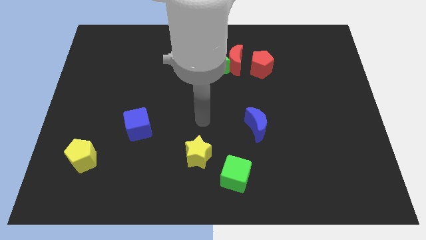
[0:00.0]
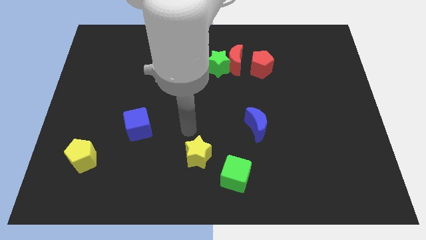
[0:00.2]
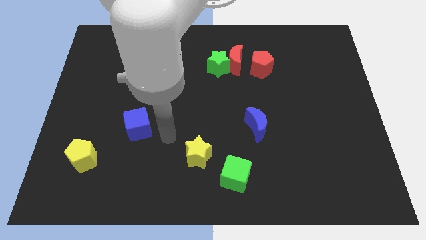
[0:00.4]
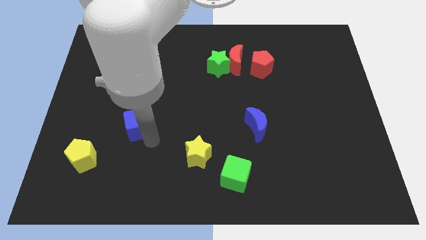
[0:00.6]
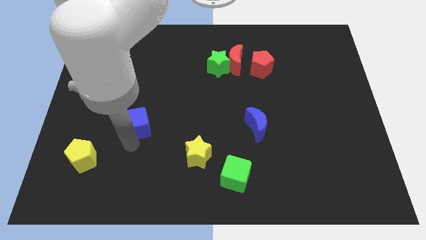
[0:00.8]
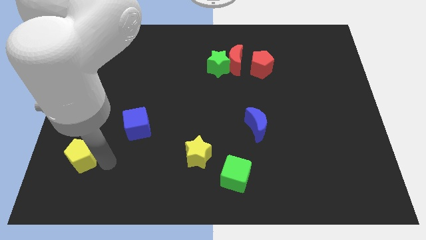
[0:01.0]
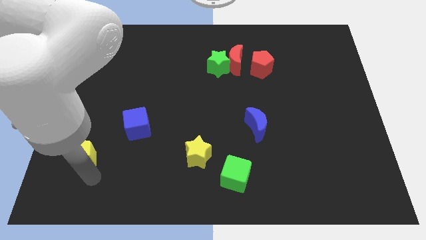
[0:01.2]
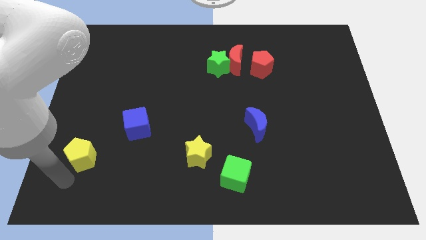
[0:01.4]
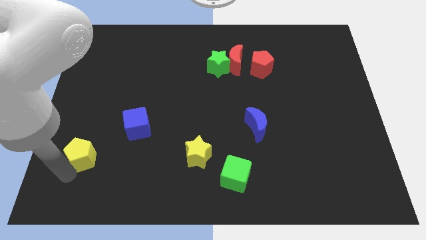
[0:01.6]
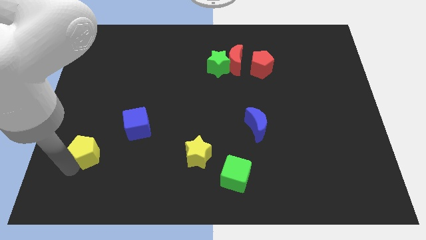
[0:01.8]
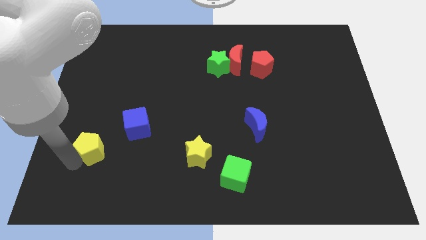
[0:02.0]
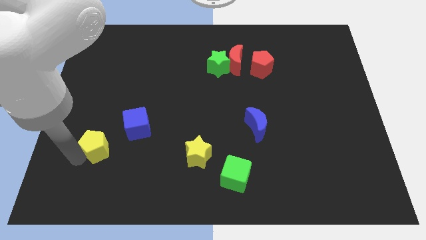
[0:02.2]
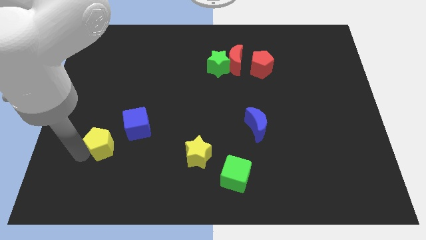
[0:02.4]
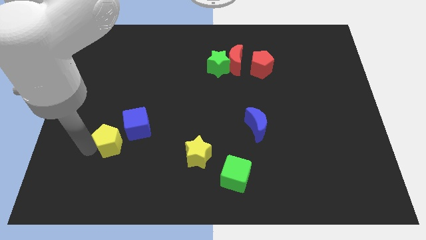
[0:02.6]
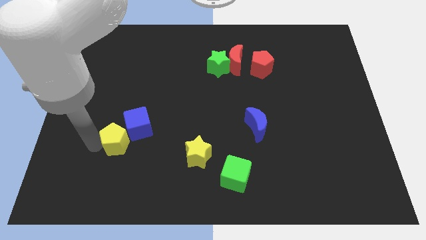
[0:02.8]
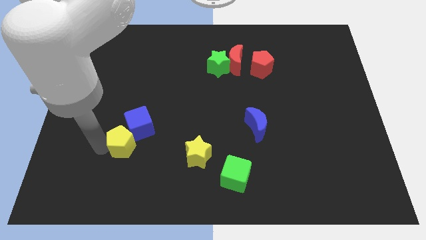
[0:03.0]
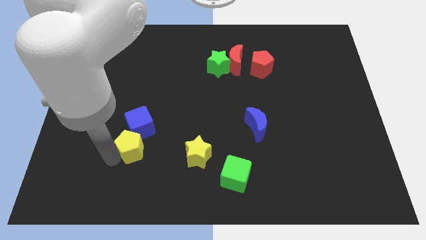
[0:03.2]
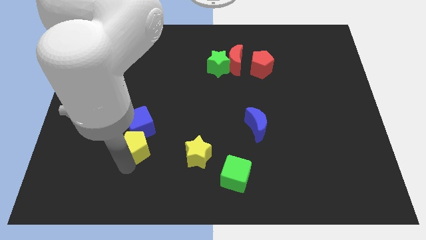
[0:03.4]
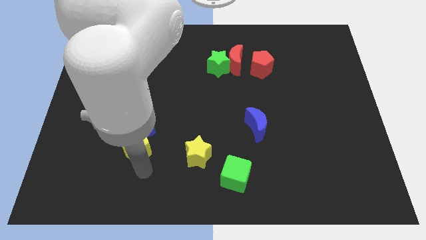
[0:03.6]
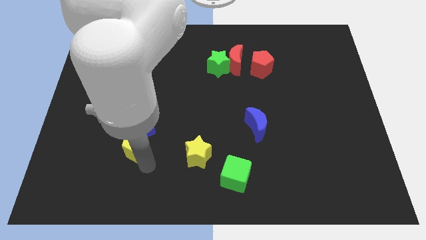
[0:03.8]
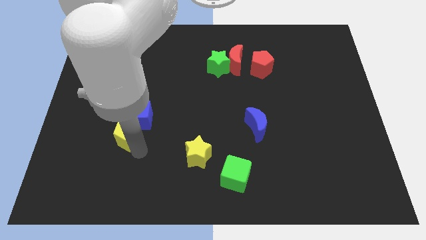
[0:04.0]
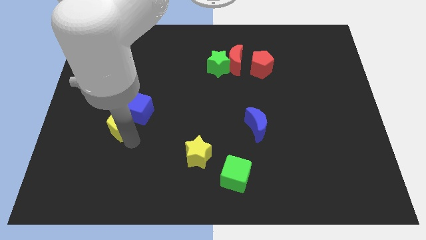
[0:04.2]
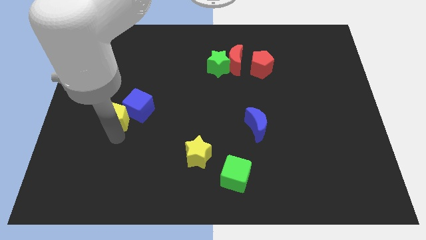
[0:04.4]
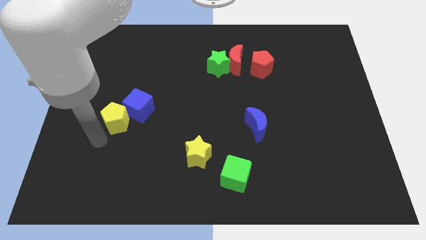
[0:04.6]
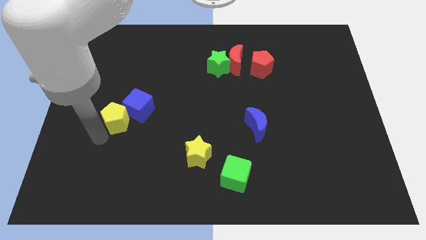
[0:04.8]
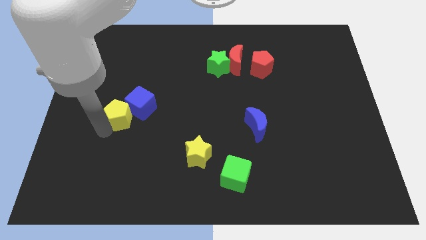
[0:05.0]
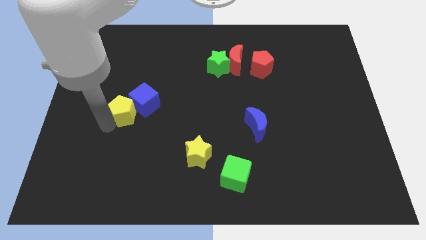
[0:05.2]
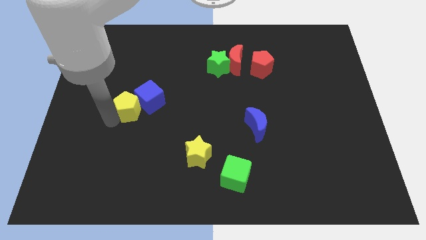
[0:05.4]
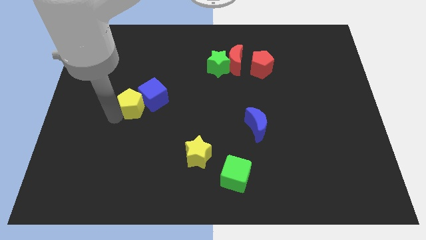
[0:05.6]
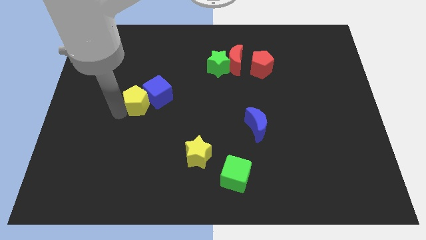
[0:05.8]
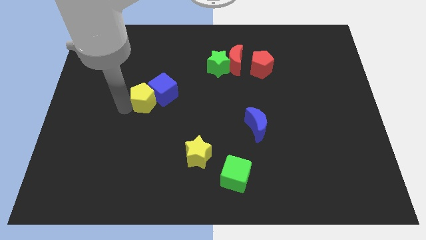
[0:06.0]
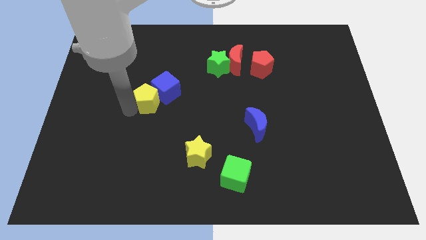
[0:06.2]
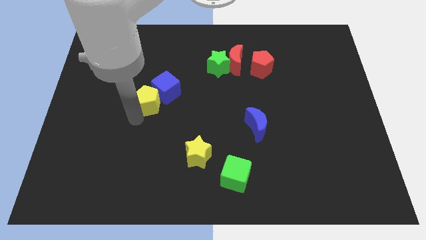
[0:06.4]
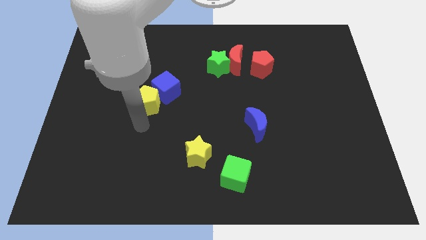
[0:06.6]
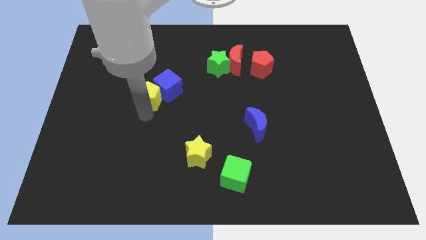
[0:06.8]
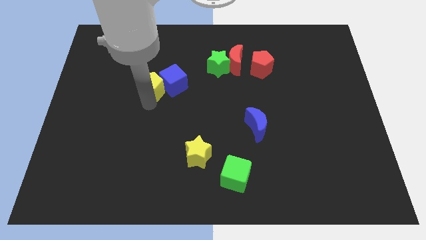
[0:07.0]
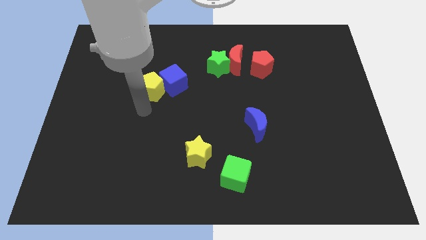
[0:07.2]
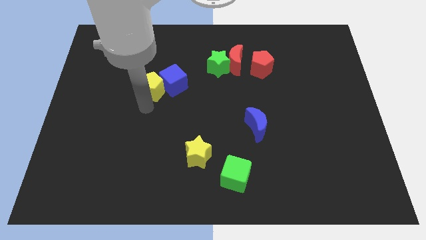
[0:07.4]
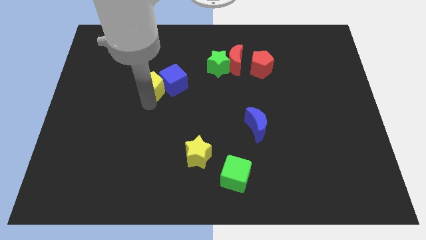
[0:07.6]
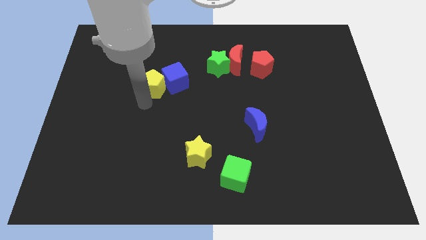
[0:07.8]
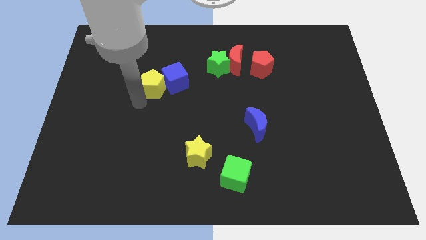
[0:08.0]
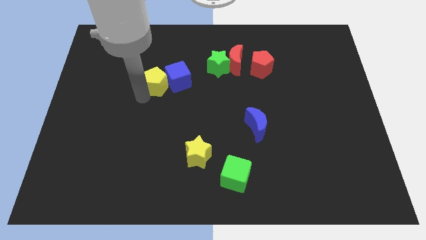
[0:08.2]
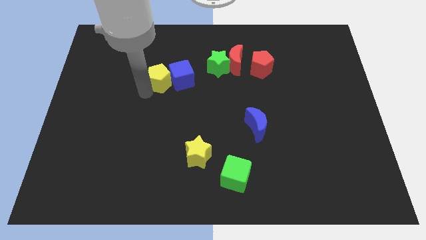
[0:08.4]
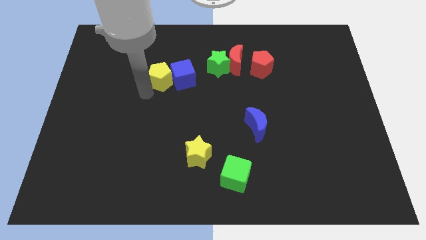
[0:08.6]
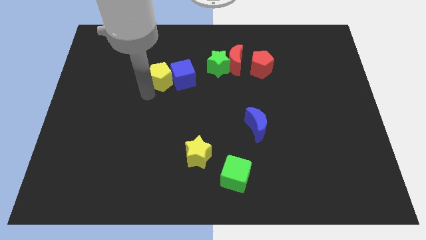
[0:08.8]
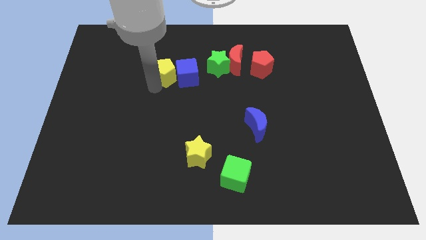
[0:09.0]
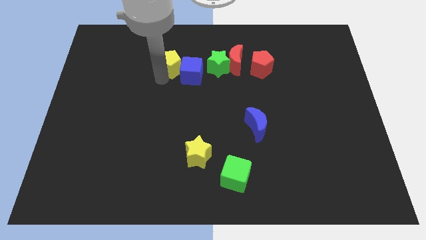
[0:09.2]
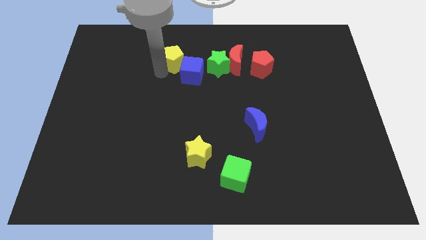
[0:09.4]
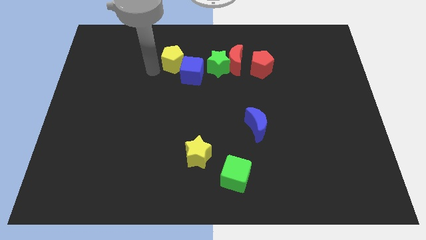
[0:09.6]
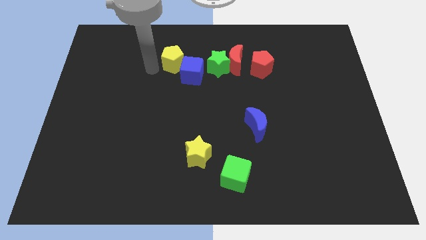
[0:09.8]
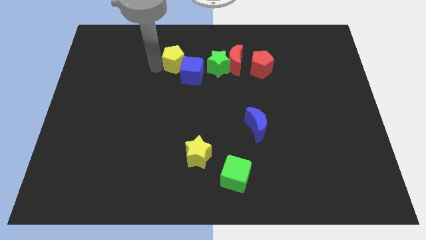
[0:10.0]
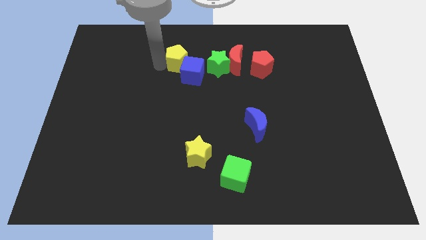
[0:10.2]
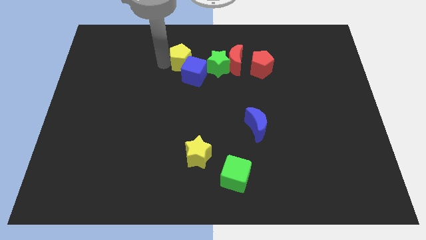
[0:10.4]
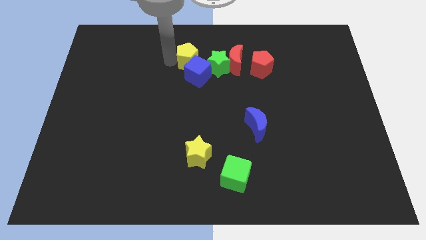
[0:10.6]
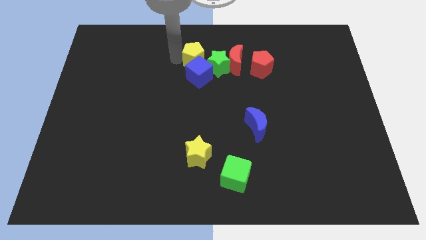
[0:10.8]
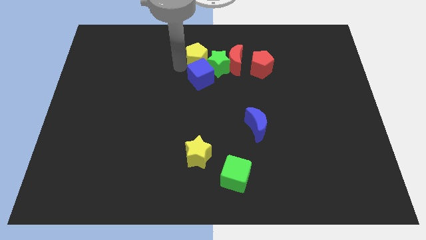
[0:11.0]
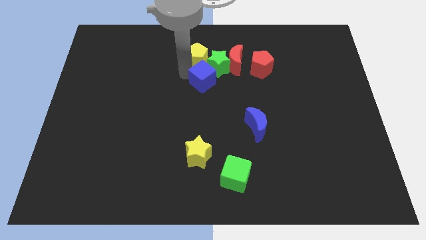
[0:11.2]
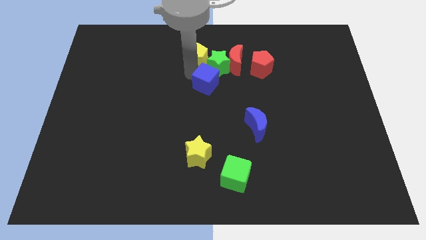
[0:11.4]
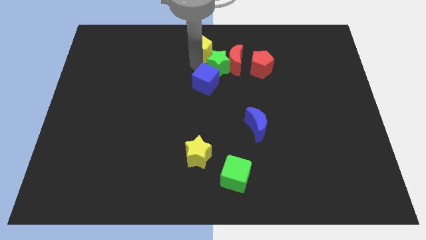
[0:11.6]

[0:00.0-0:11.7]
slide the yellow pentagon to the top
